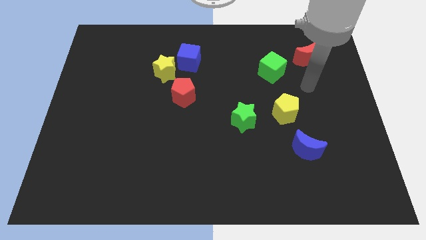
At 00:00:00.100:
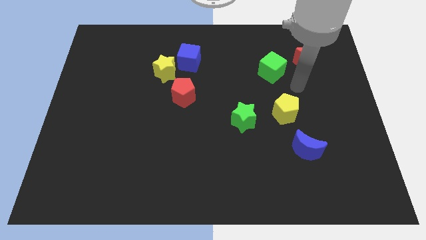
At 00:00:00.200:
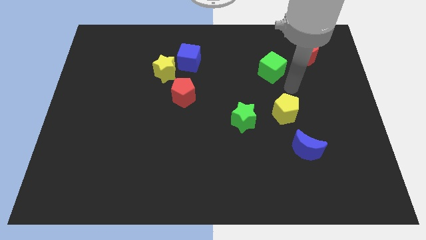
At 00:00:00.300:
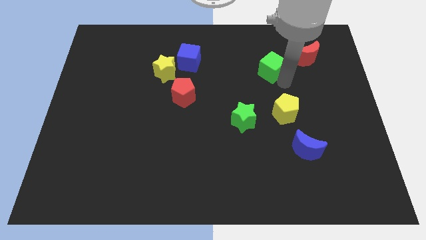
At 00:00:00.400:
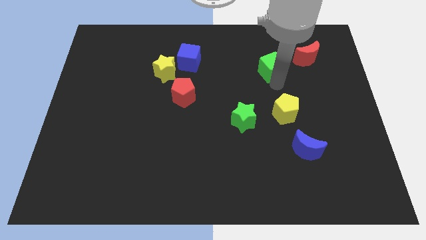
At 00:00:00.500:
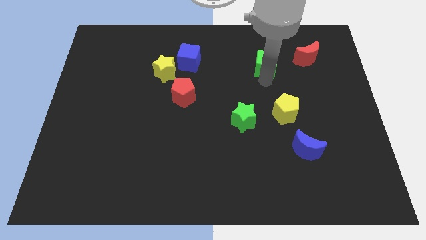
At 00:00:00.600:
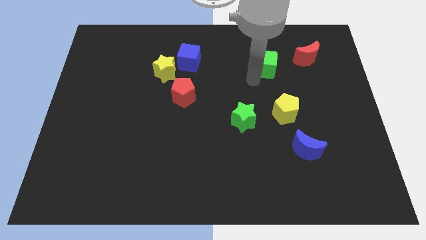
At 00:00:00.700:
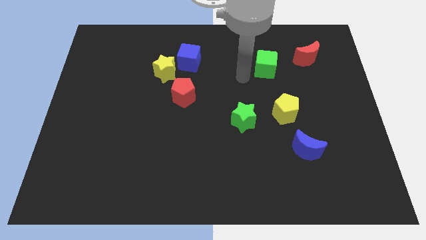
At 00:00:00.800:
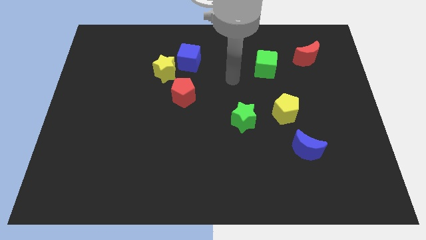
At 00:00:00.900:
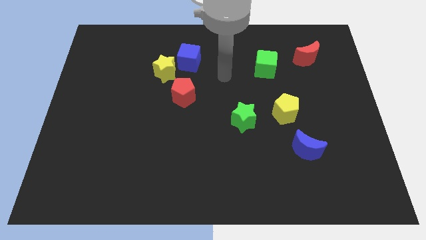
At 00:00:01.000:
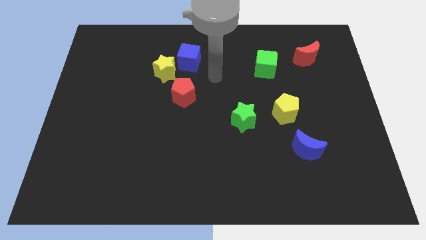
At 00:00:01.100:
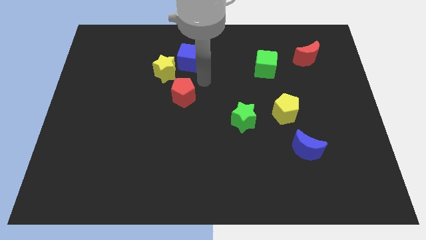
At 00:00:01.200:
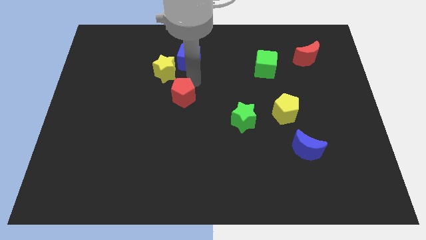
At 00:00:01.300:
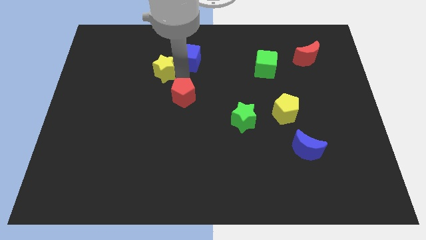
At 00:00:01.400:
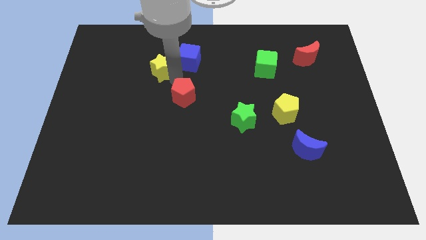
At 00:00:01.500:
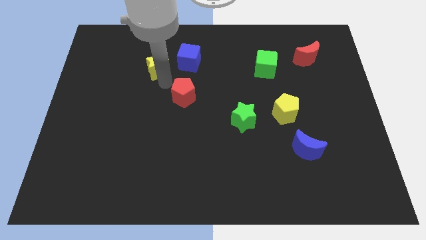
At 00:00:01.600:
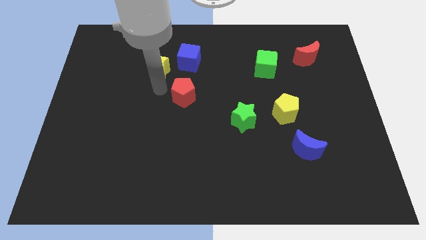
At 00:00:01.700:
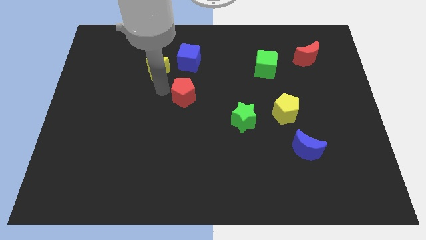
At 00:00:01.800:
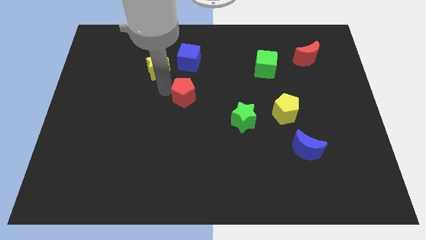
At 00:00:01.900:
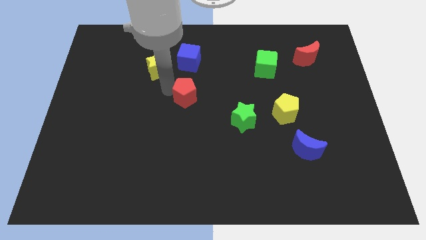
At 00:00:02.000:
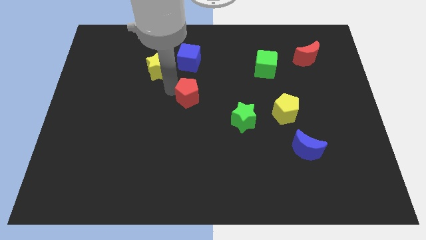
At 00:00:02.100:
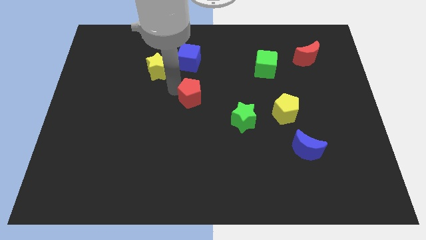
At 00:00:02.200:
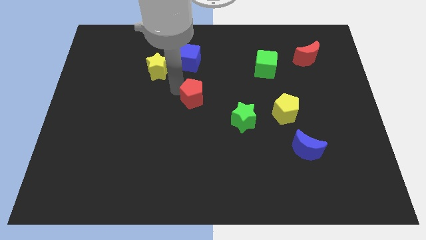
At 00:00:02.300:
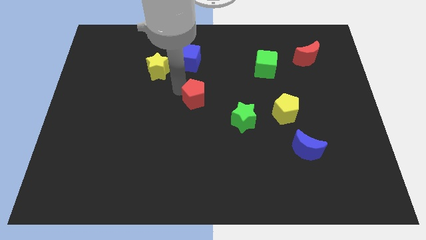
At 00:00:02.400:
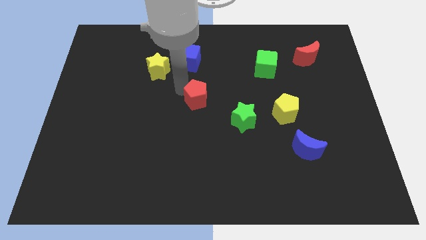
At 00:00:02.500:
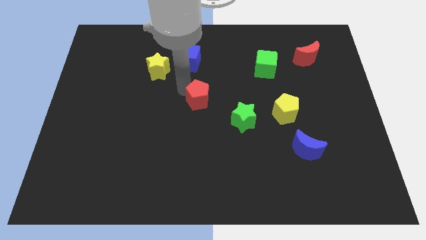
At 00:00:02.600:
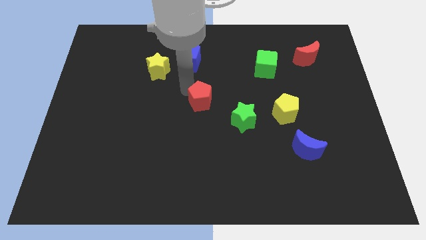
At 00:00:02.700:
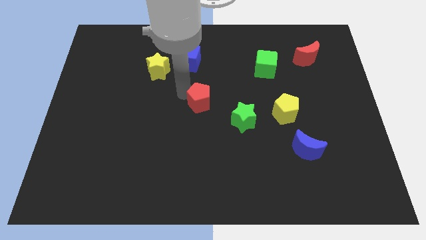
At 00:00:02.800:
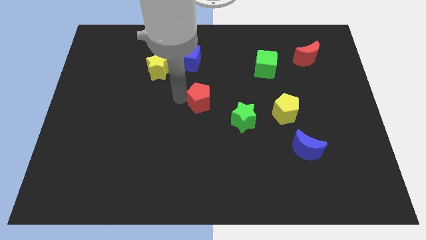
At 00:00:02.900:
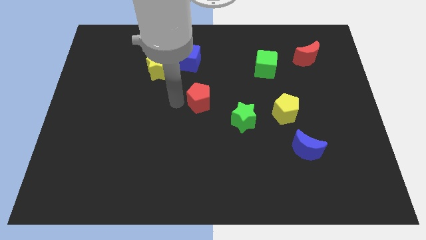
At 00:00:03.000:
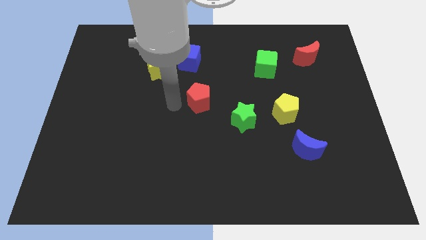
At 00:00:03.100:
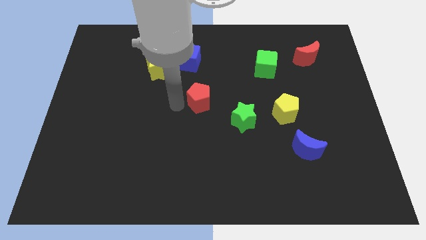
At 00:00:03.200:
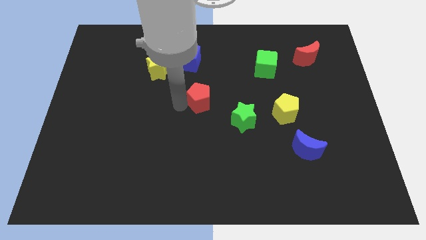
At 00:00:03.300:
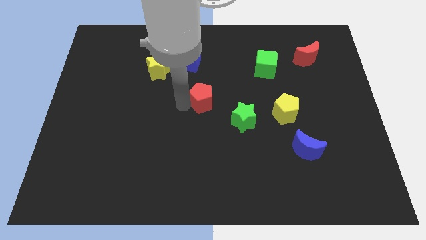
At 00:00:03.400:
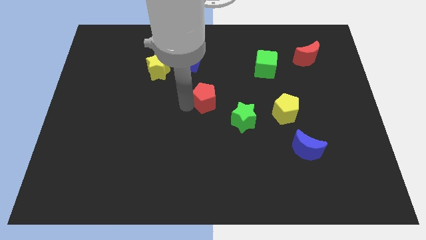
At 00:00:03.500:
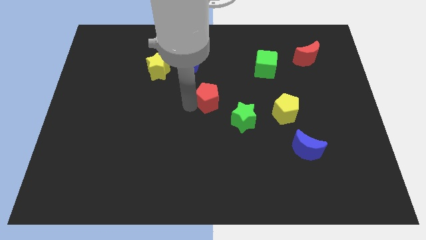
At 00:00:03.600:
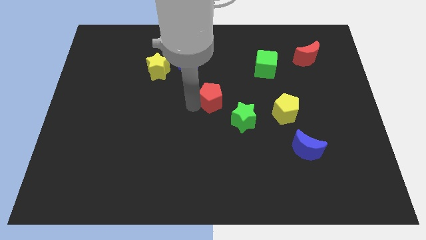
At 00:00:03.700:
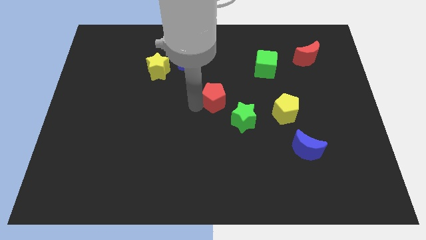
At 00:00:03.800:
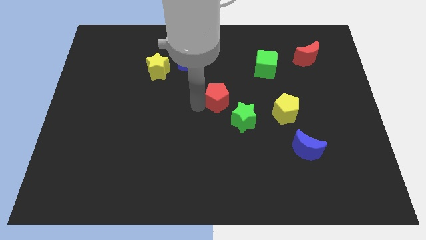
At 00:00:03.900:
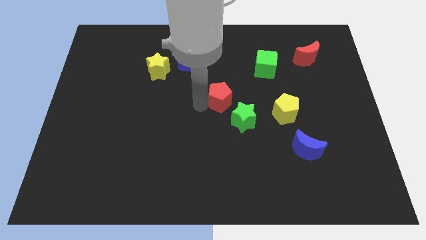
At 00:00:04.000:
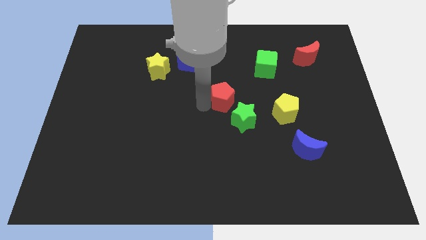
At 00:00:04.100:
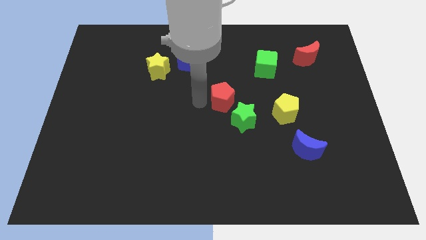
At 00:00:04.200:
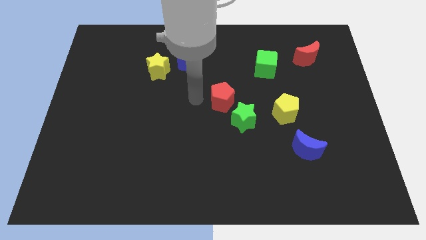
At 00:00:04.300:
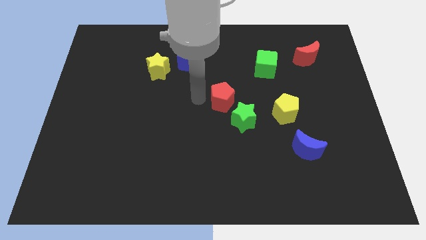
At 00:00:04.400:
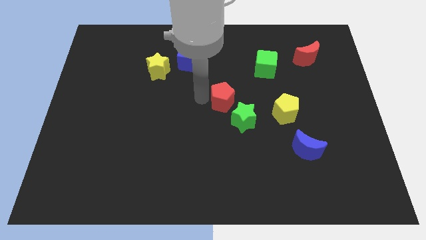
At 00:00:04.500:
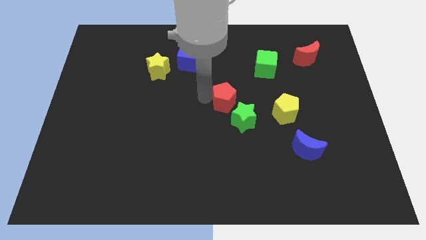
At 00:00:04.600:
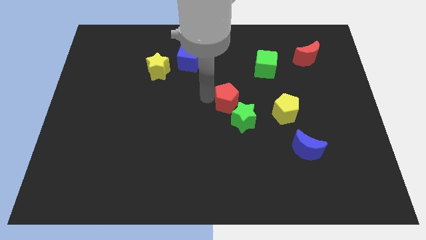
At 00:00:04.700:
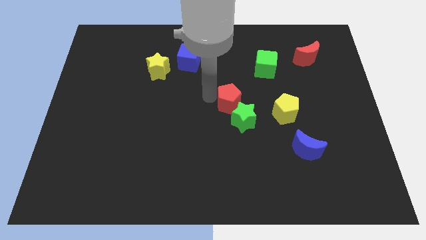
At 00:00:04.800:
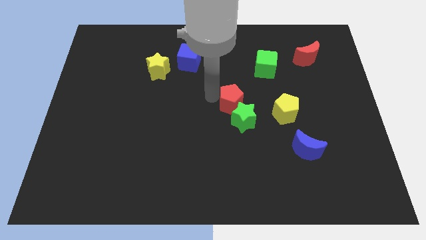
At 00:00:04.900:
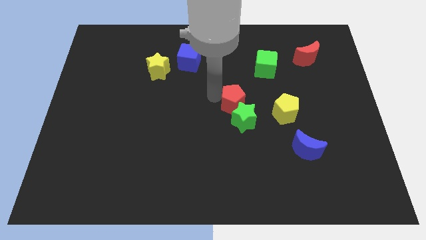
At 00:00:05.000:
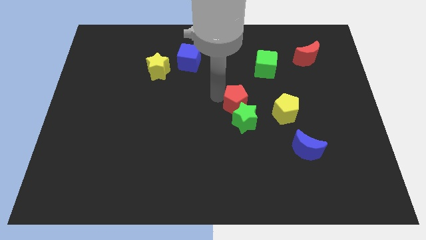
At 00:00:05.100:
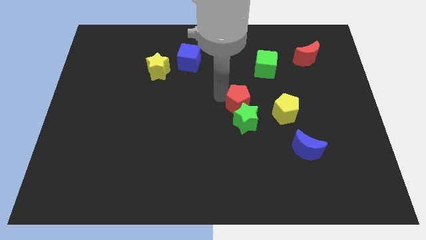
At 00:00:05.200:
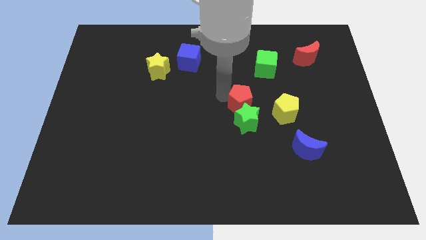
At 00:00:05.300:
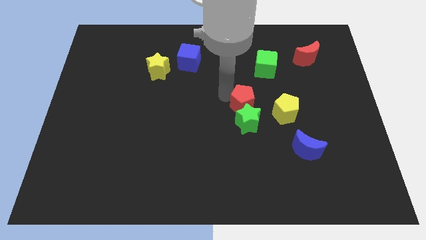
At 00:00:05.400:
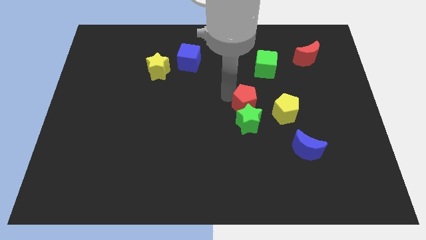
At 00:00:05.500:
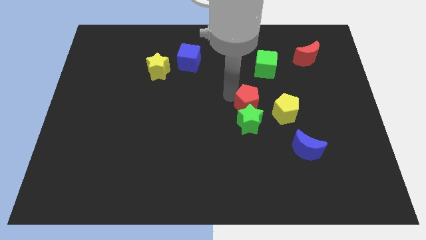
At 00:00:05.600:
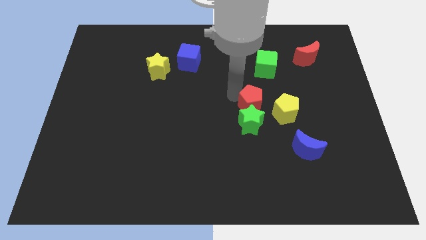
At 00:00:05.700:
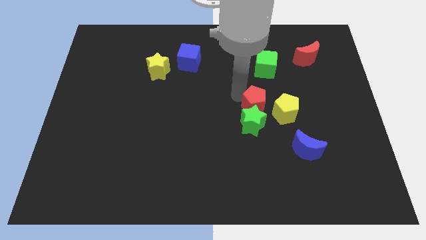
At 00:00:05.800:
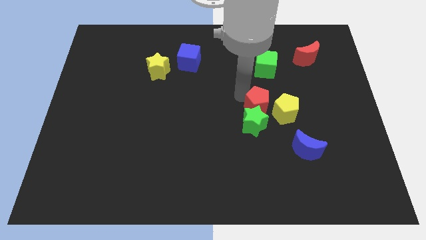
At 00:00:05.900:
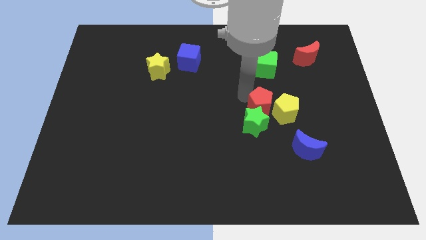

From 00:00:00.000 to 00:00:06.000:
put the red pentagon to the yellow pentagon
